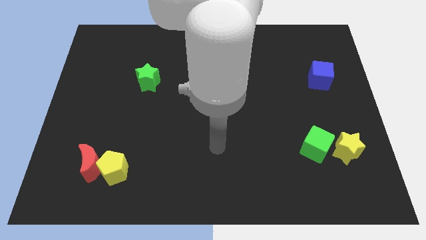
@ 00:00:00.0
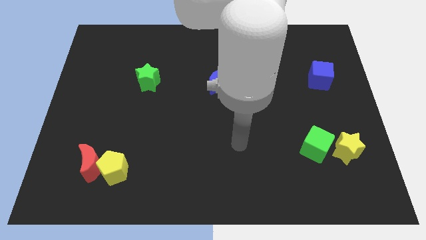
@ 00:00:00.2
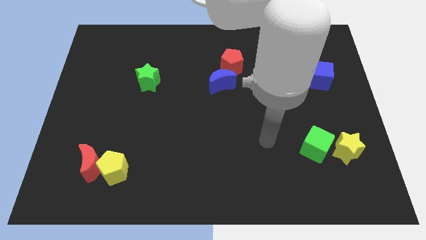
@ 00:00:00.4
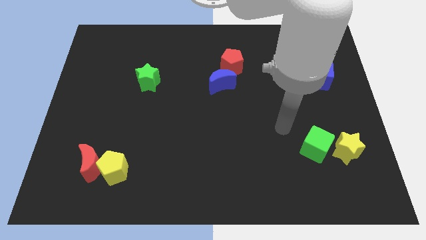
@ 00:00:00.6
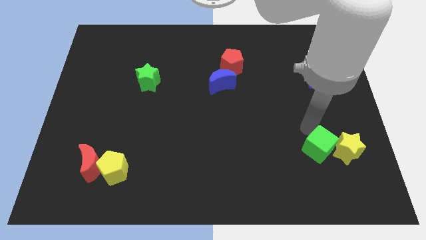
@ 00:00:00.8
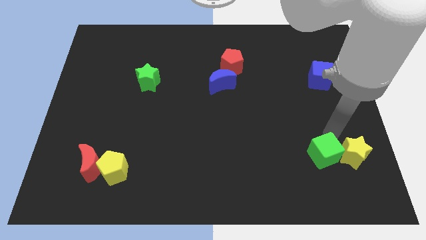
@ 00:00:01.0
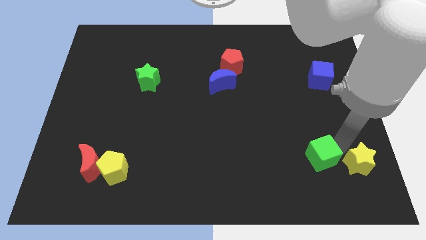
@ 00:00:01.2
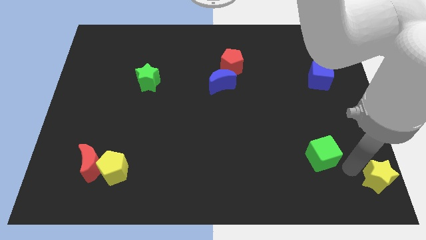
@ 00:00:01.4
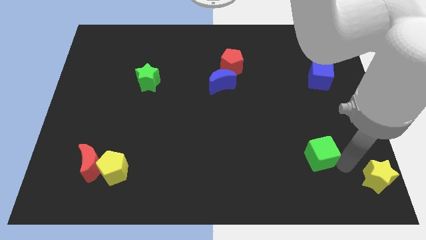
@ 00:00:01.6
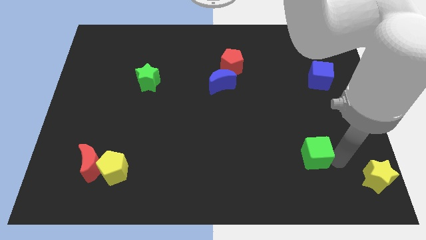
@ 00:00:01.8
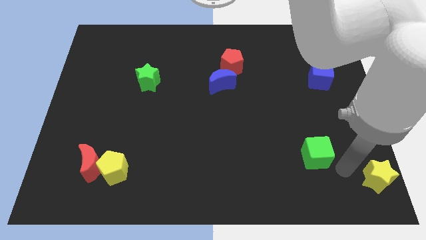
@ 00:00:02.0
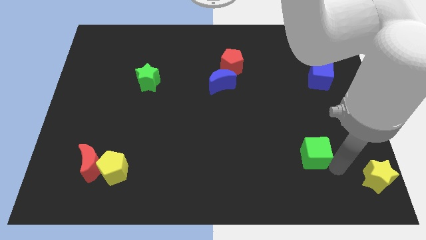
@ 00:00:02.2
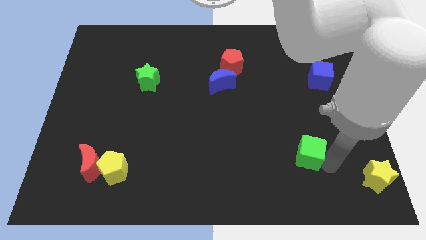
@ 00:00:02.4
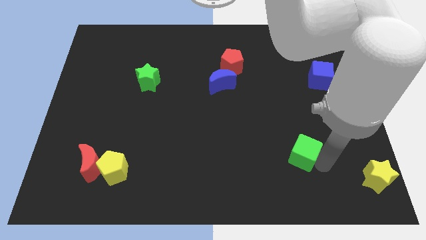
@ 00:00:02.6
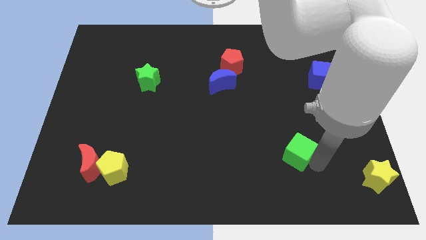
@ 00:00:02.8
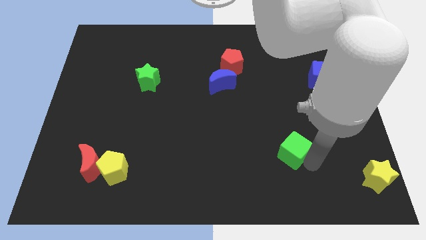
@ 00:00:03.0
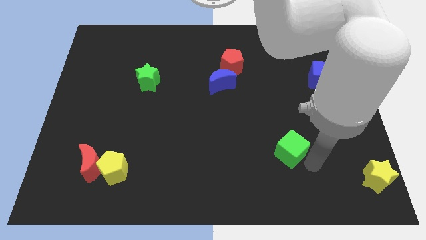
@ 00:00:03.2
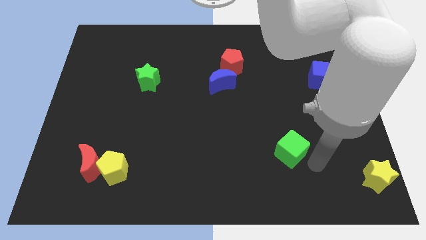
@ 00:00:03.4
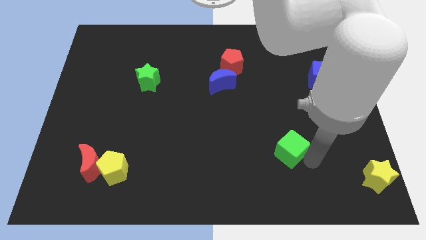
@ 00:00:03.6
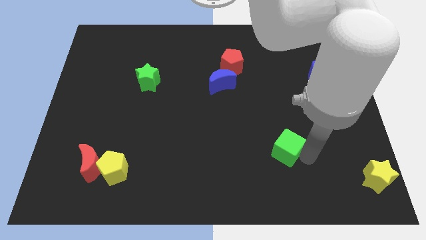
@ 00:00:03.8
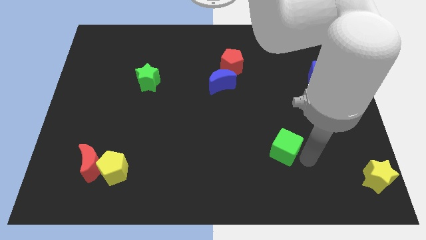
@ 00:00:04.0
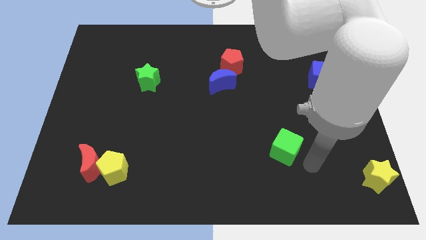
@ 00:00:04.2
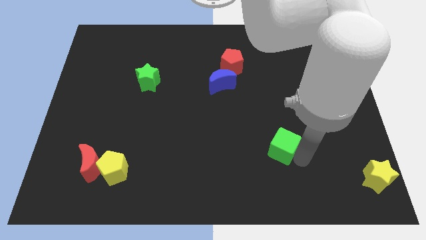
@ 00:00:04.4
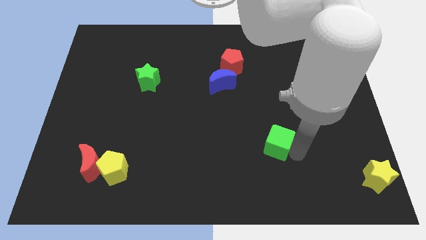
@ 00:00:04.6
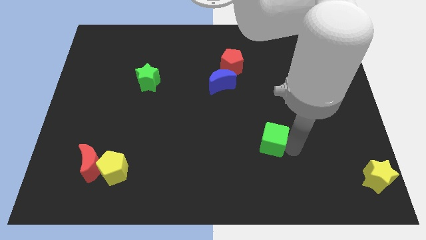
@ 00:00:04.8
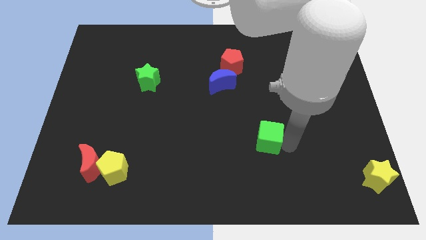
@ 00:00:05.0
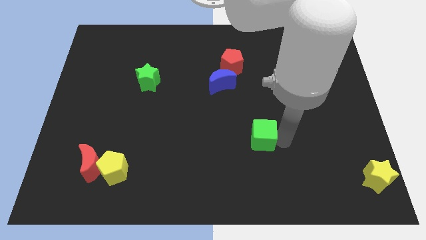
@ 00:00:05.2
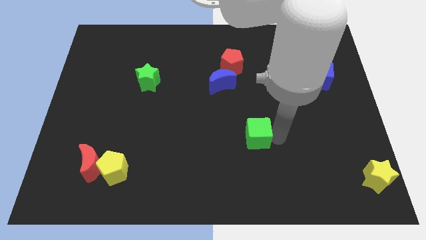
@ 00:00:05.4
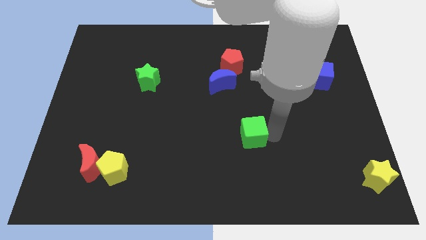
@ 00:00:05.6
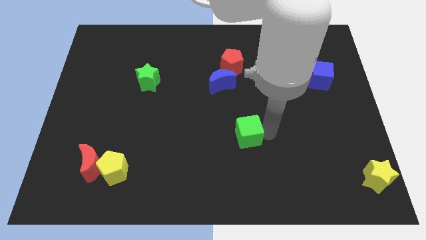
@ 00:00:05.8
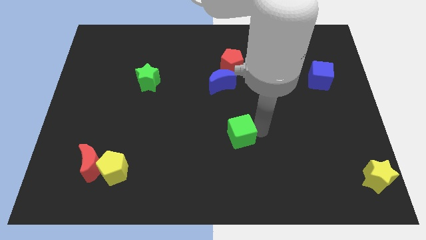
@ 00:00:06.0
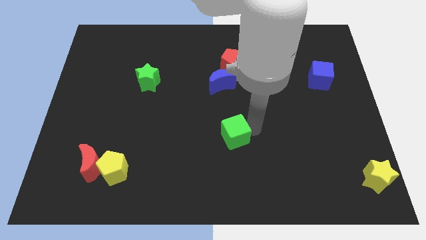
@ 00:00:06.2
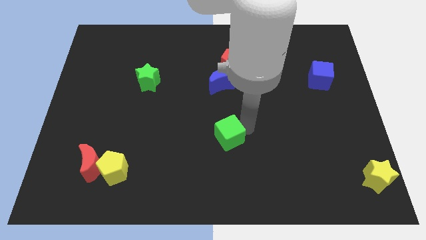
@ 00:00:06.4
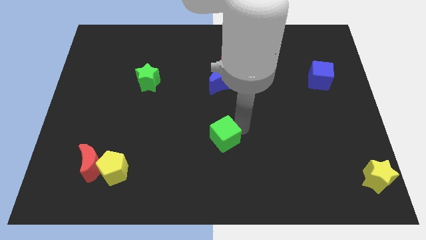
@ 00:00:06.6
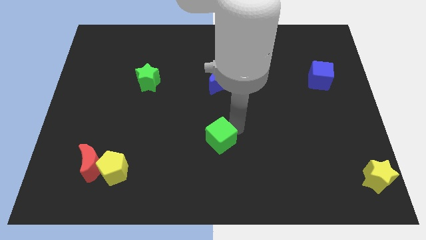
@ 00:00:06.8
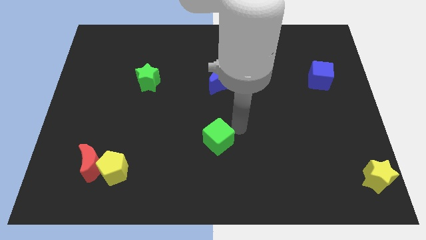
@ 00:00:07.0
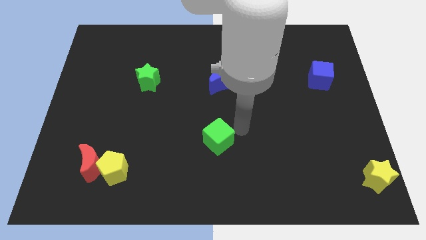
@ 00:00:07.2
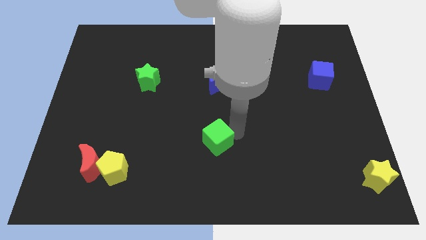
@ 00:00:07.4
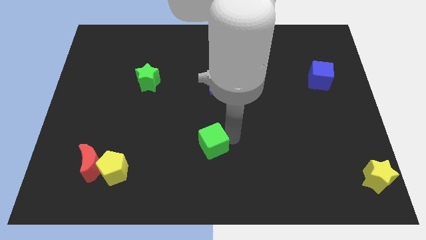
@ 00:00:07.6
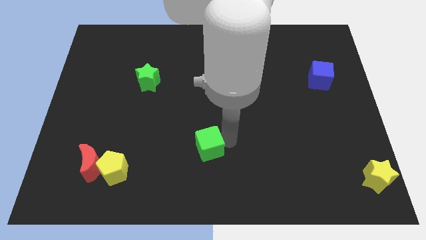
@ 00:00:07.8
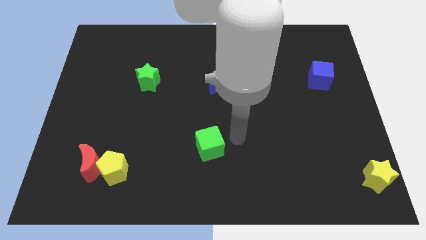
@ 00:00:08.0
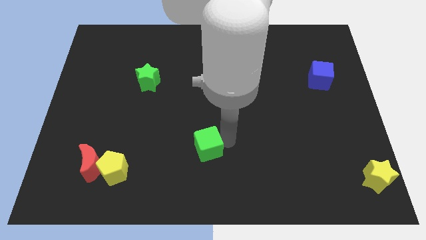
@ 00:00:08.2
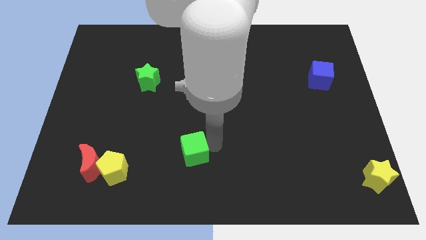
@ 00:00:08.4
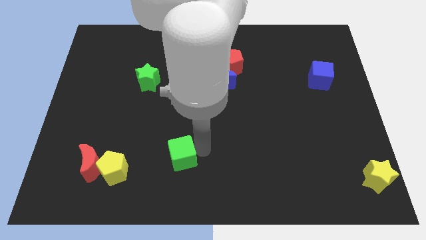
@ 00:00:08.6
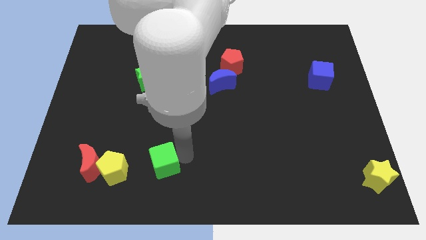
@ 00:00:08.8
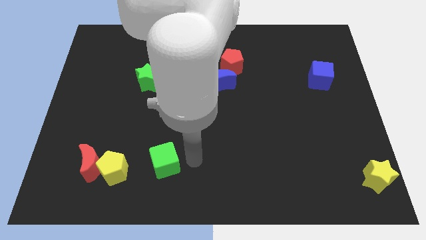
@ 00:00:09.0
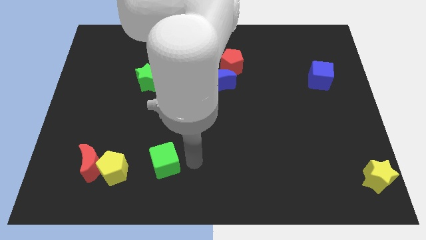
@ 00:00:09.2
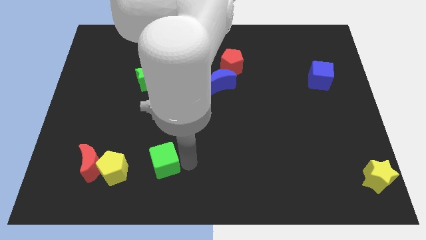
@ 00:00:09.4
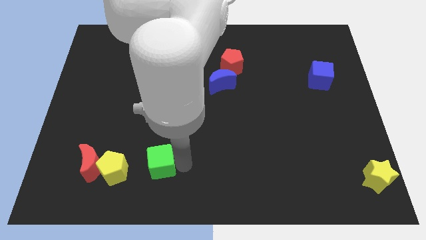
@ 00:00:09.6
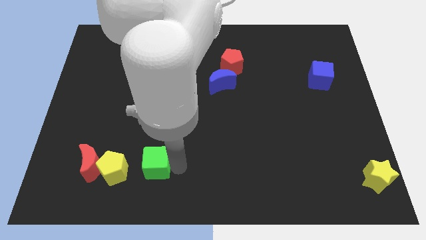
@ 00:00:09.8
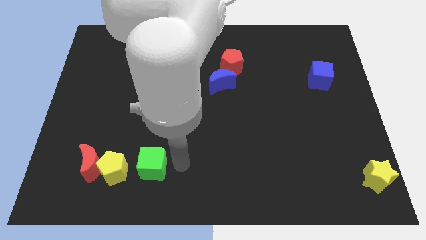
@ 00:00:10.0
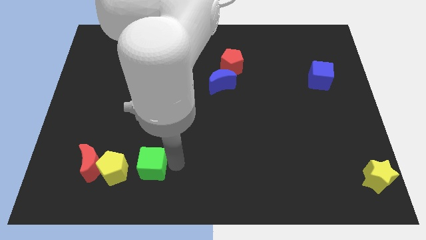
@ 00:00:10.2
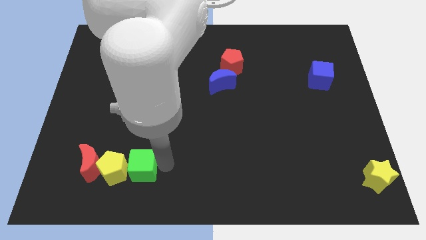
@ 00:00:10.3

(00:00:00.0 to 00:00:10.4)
move the green cube towards the yellow pentagon

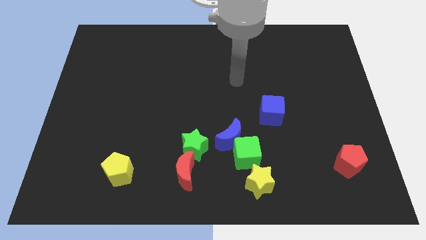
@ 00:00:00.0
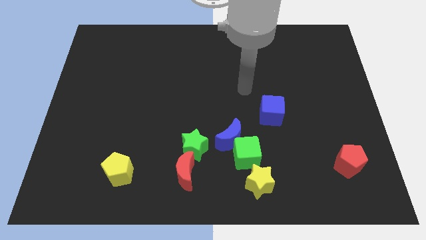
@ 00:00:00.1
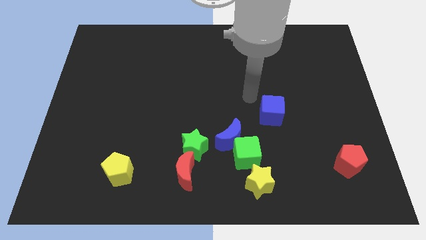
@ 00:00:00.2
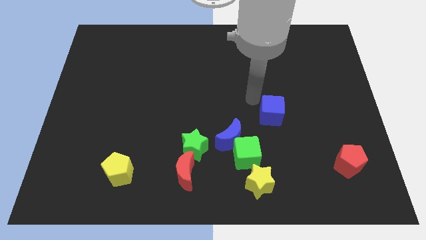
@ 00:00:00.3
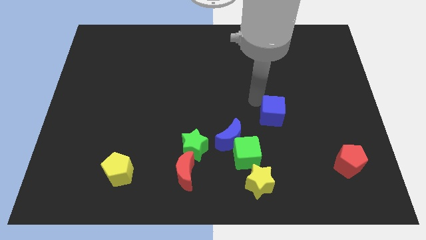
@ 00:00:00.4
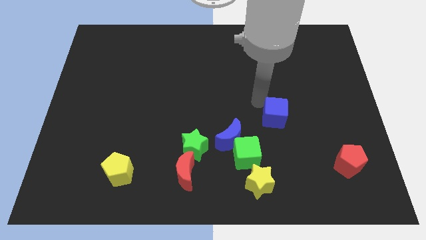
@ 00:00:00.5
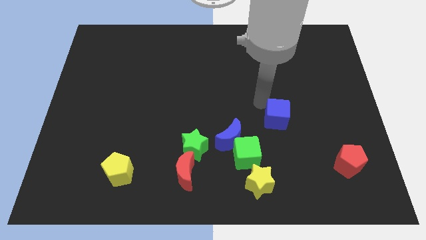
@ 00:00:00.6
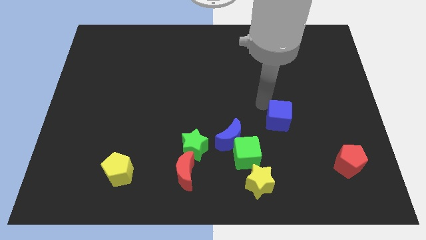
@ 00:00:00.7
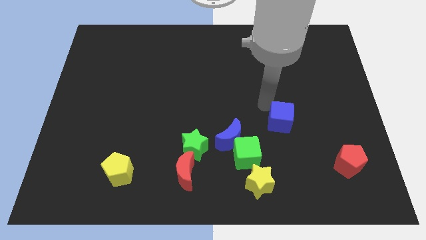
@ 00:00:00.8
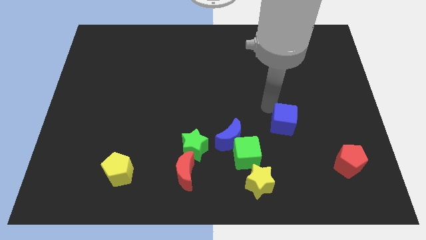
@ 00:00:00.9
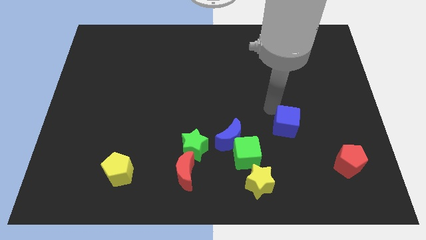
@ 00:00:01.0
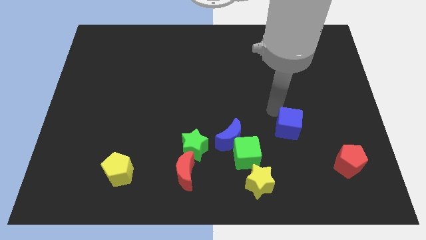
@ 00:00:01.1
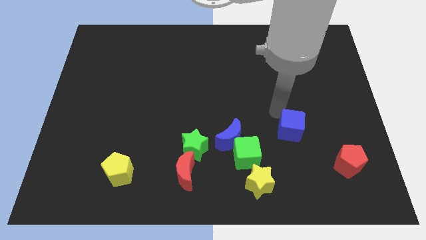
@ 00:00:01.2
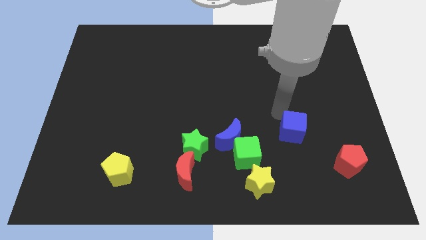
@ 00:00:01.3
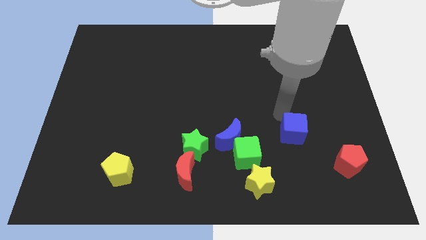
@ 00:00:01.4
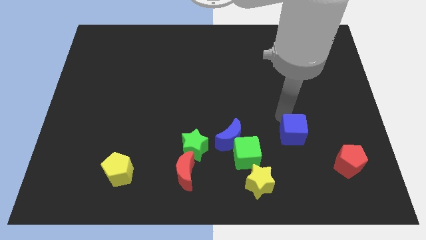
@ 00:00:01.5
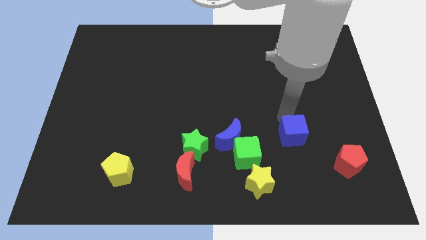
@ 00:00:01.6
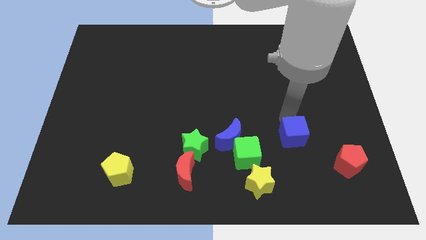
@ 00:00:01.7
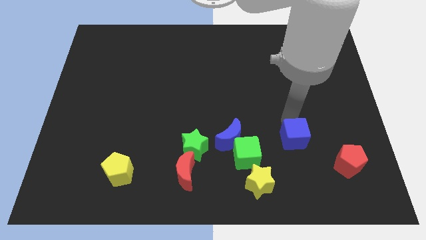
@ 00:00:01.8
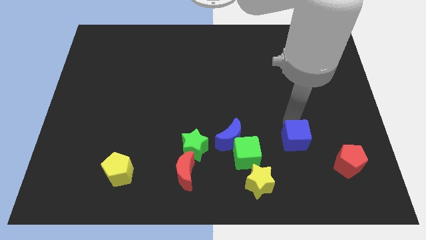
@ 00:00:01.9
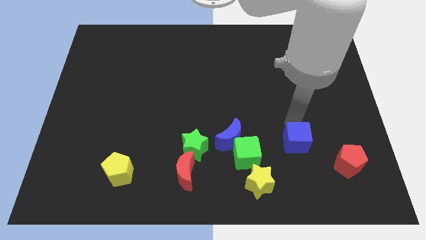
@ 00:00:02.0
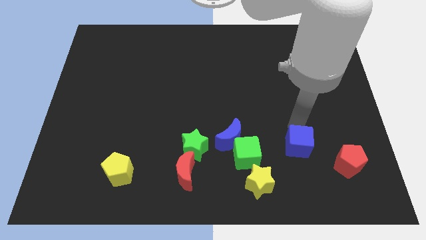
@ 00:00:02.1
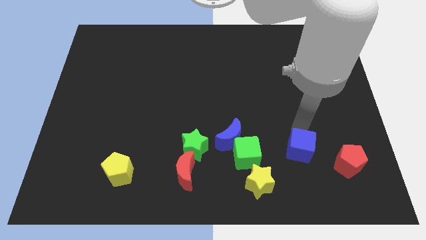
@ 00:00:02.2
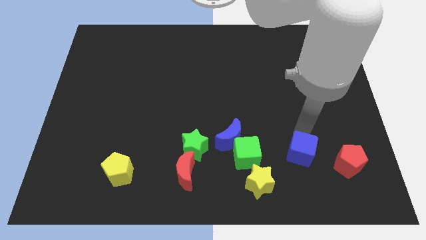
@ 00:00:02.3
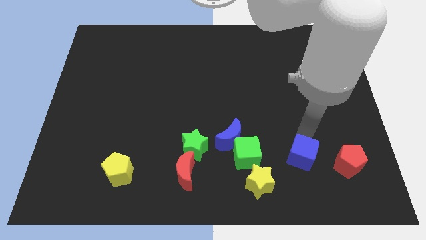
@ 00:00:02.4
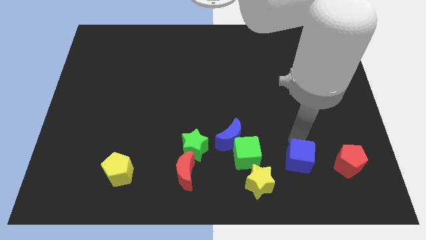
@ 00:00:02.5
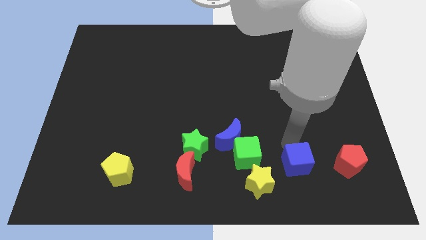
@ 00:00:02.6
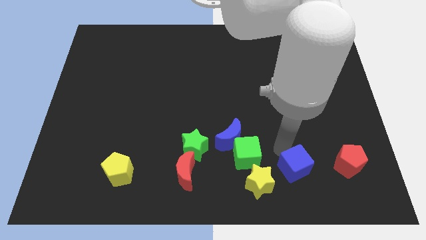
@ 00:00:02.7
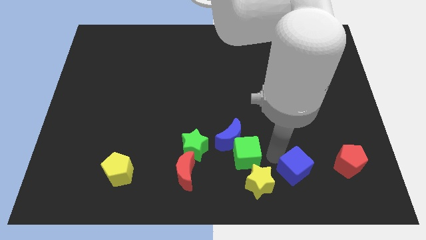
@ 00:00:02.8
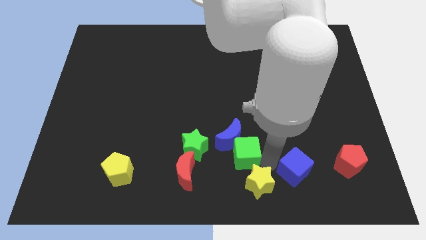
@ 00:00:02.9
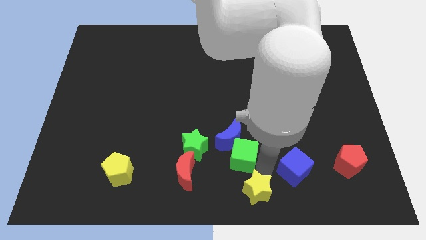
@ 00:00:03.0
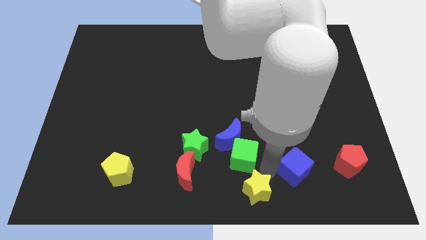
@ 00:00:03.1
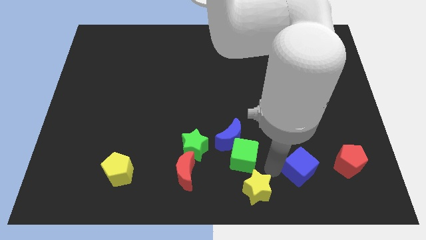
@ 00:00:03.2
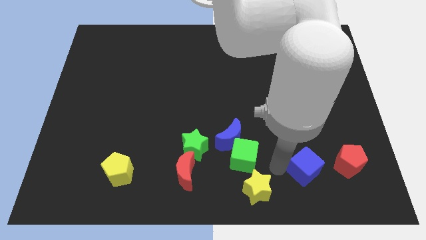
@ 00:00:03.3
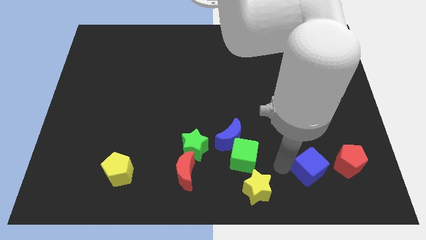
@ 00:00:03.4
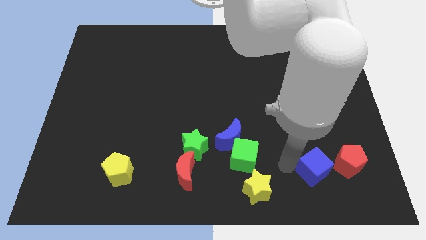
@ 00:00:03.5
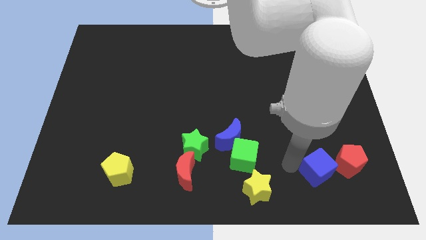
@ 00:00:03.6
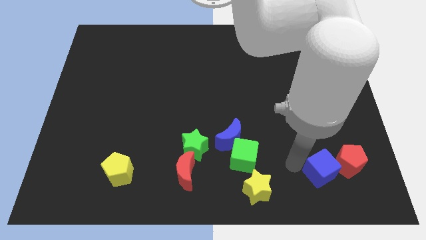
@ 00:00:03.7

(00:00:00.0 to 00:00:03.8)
move the blue cube close to the red pentagon
